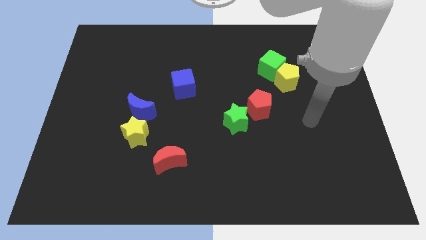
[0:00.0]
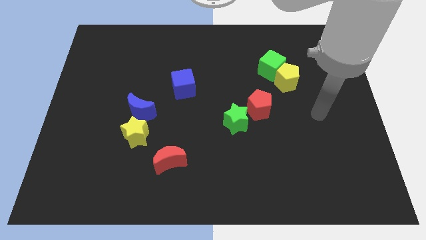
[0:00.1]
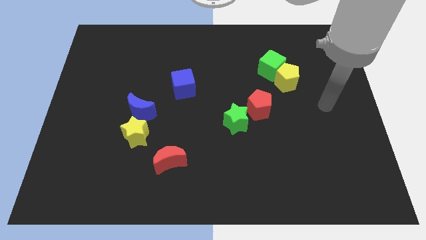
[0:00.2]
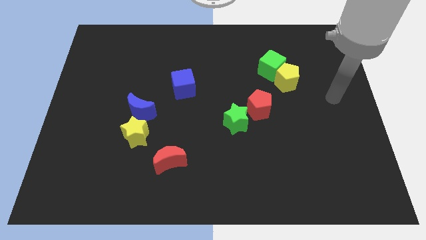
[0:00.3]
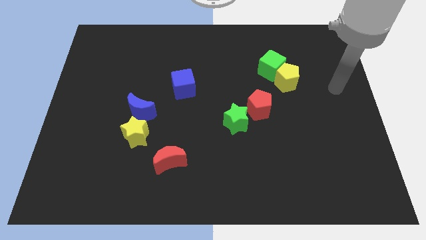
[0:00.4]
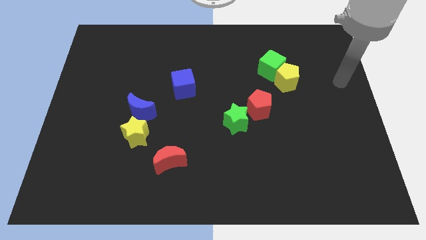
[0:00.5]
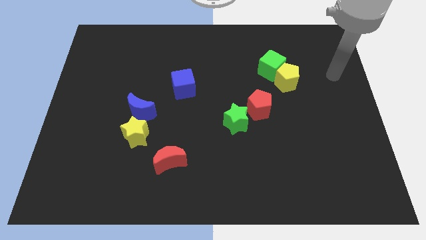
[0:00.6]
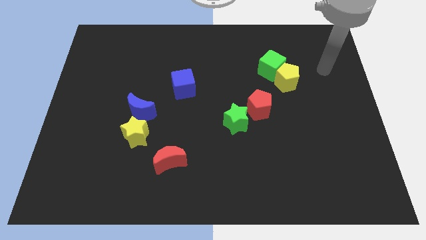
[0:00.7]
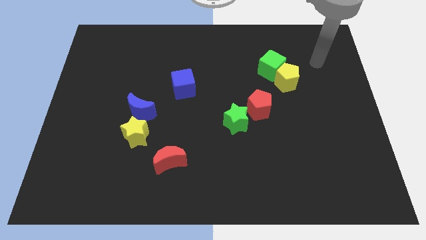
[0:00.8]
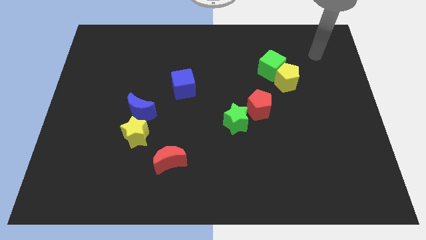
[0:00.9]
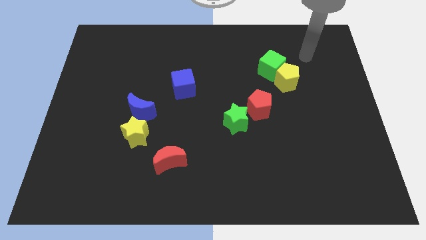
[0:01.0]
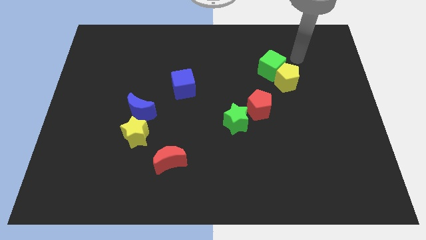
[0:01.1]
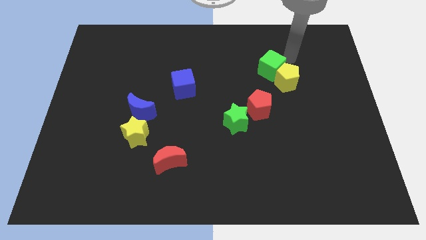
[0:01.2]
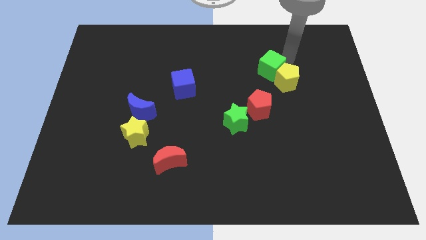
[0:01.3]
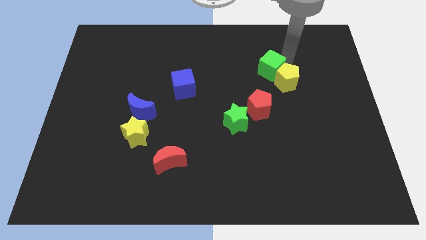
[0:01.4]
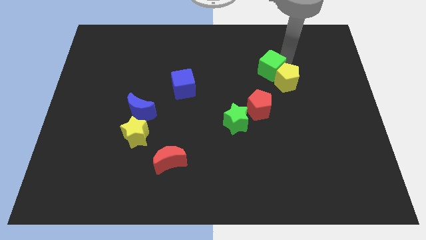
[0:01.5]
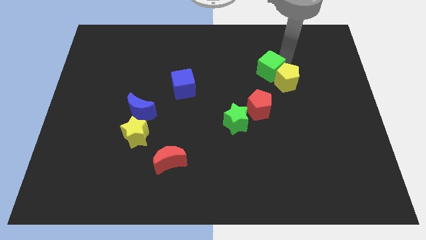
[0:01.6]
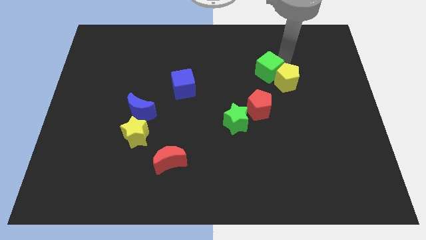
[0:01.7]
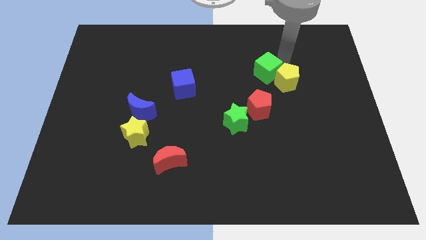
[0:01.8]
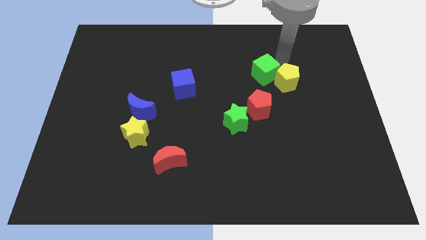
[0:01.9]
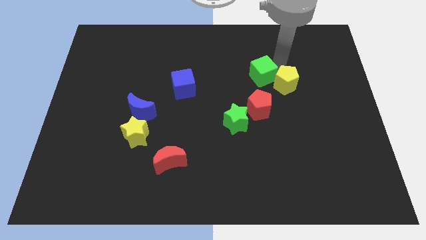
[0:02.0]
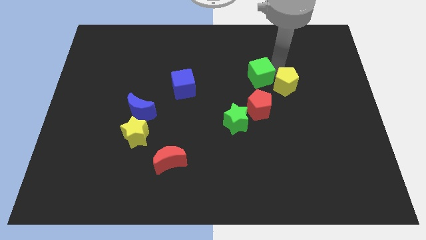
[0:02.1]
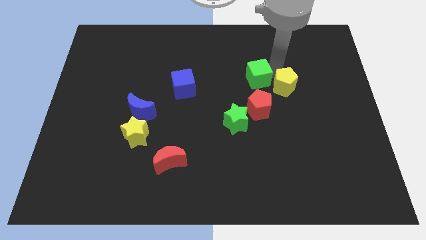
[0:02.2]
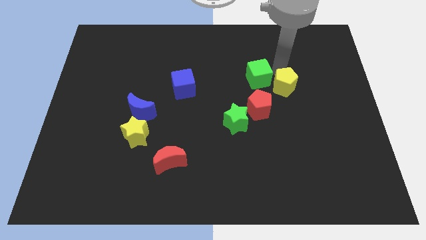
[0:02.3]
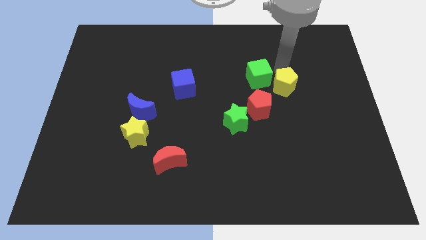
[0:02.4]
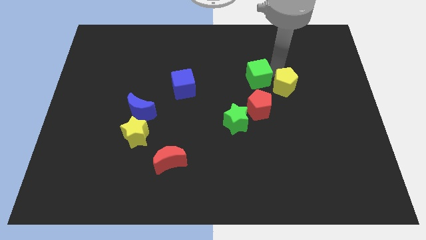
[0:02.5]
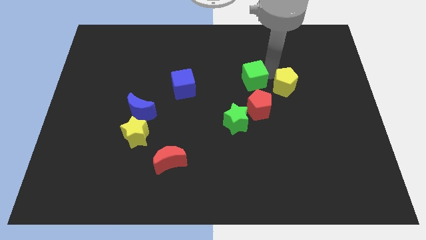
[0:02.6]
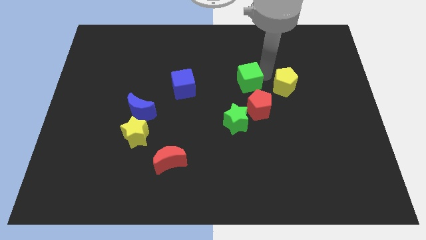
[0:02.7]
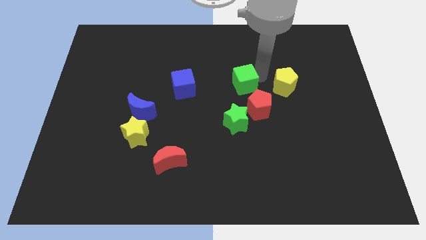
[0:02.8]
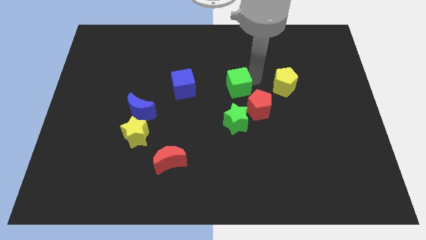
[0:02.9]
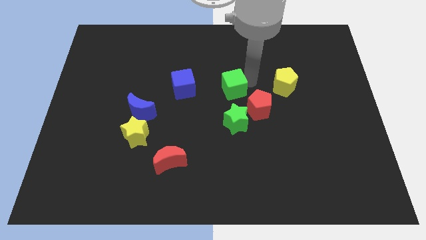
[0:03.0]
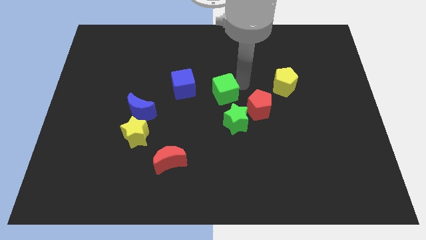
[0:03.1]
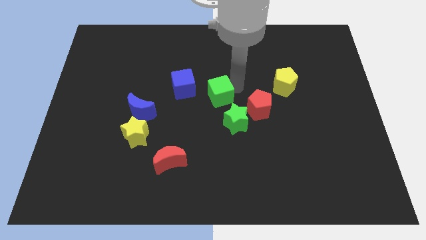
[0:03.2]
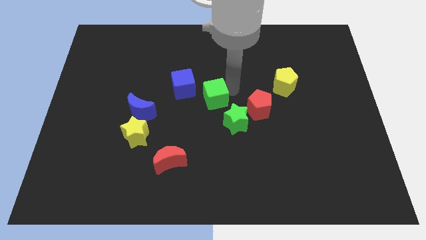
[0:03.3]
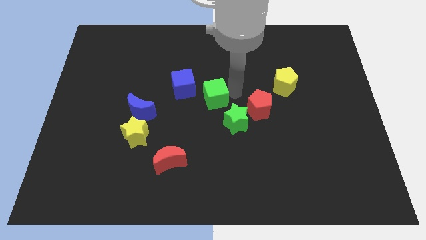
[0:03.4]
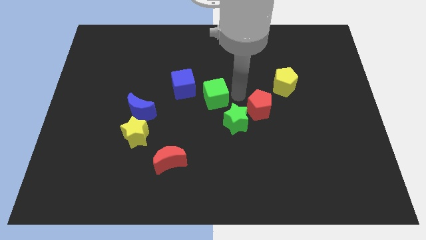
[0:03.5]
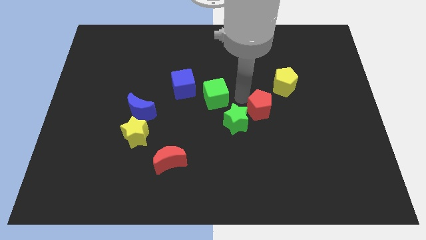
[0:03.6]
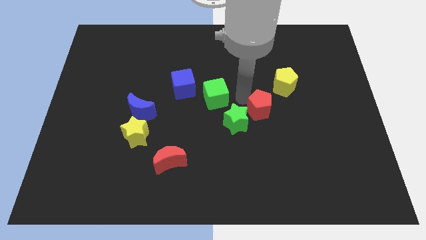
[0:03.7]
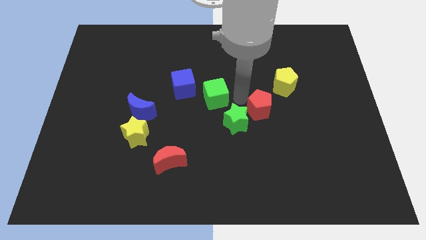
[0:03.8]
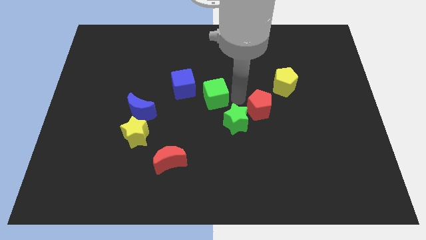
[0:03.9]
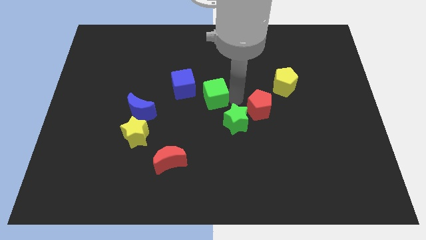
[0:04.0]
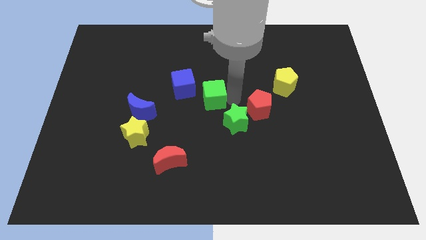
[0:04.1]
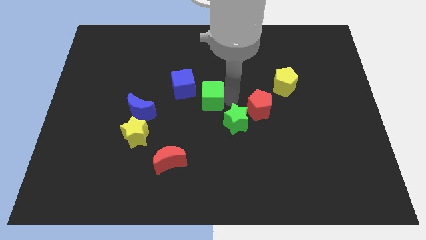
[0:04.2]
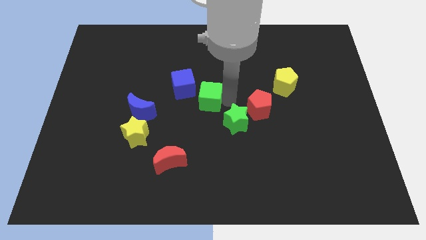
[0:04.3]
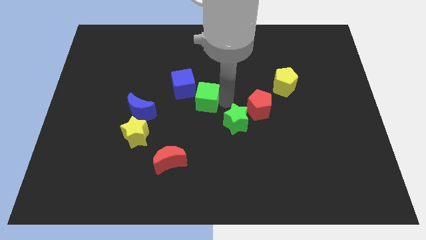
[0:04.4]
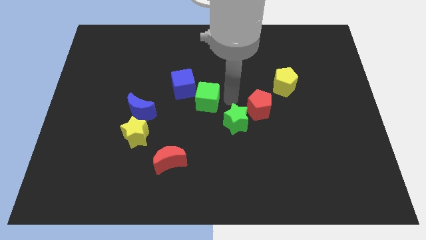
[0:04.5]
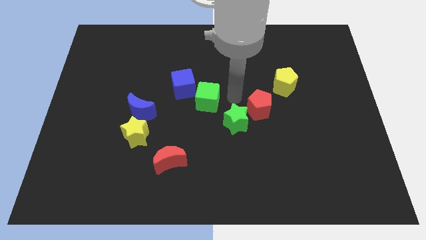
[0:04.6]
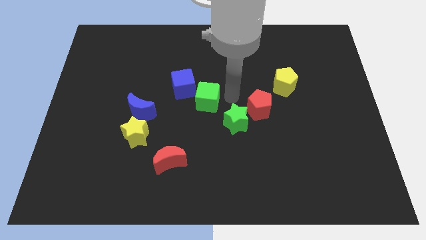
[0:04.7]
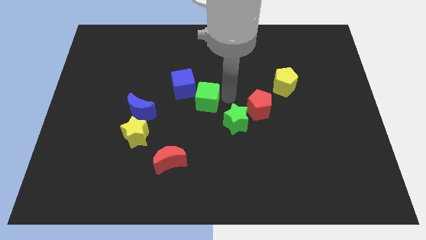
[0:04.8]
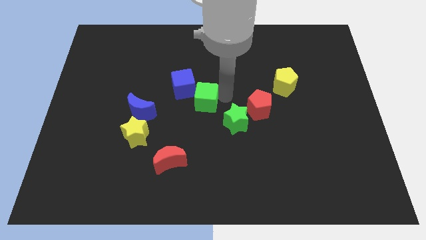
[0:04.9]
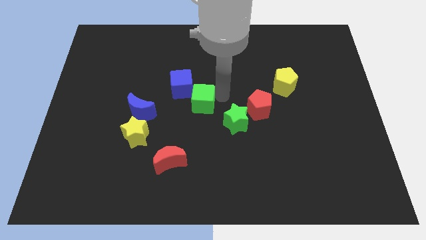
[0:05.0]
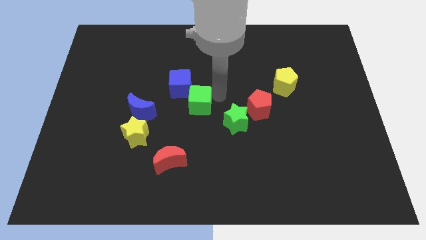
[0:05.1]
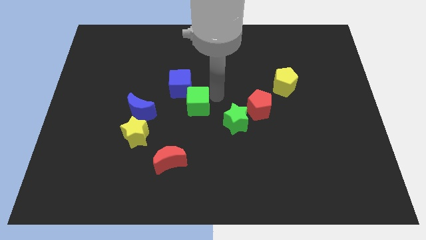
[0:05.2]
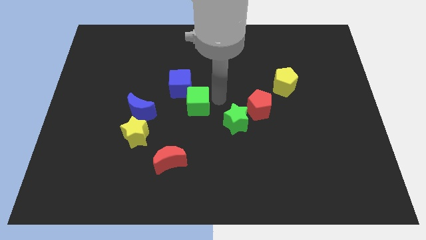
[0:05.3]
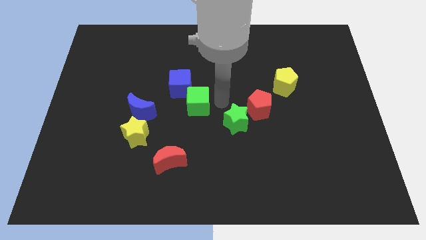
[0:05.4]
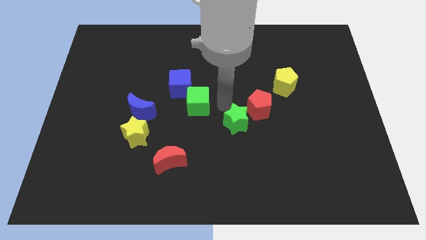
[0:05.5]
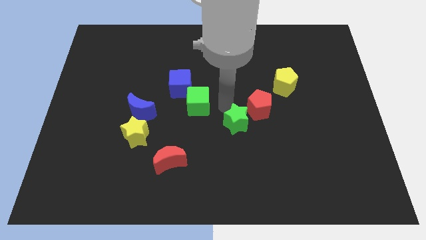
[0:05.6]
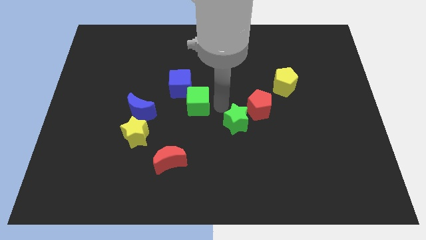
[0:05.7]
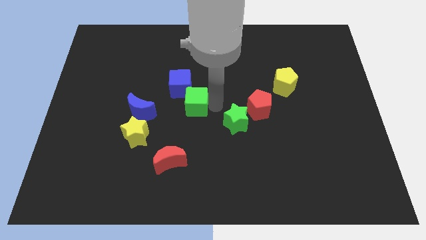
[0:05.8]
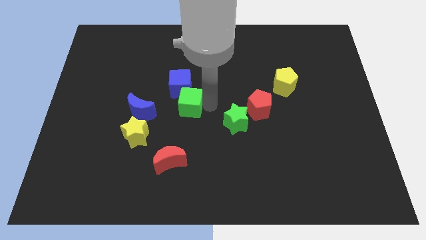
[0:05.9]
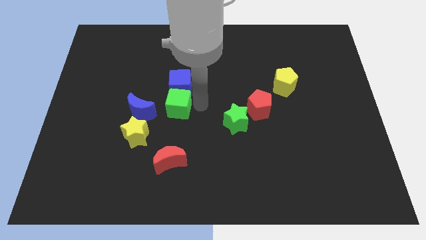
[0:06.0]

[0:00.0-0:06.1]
push the green cube diagonally down and to the left of the blue cube

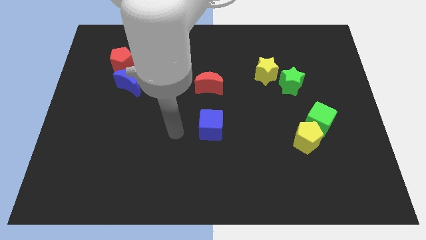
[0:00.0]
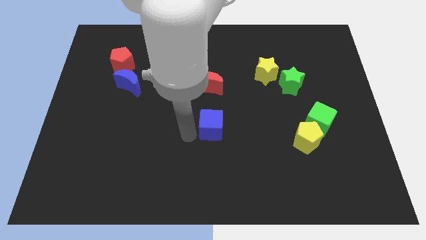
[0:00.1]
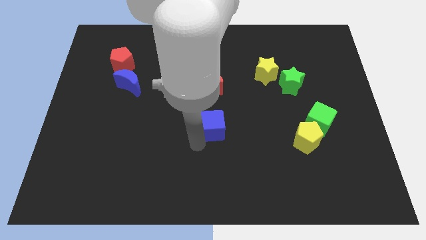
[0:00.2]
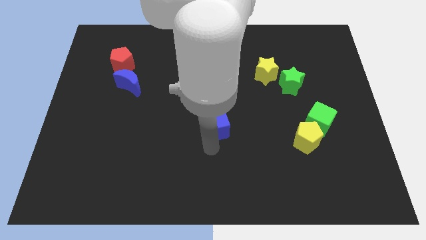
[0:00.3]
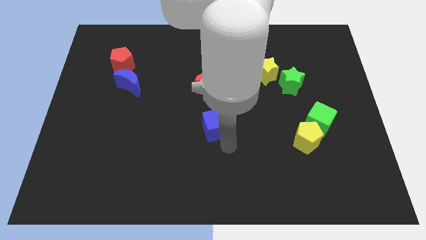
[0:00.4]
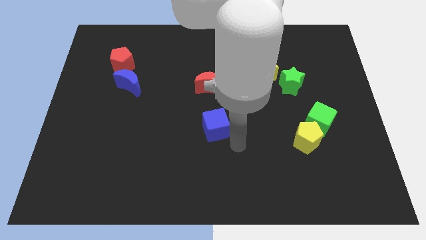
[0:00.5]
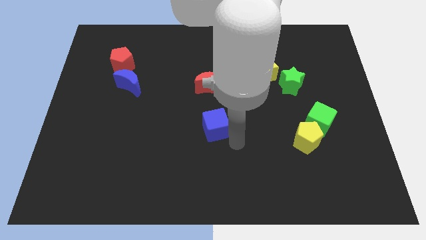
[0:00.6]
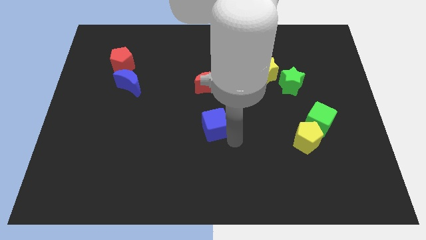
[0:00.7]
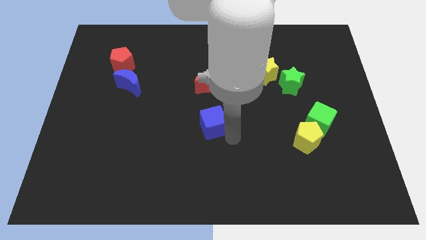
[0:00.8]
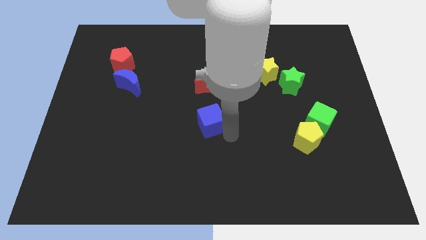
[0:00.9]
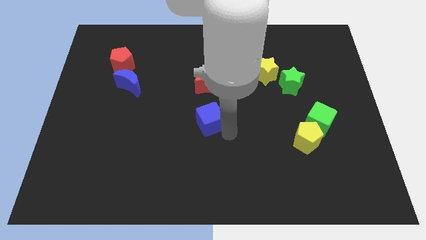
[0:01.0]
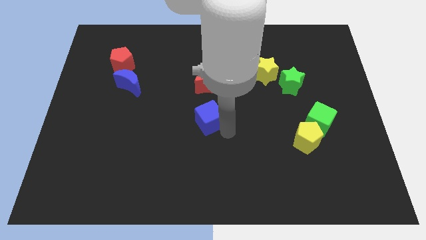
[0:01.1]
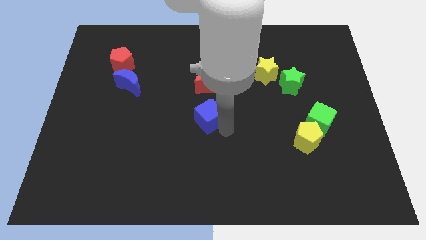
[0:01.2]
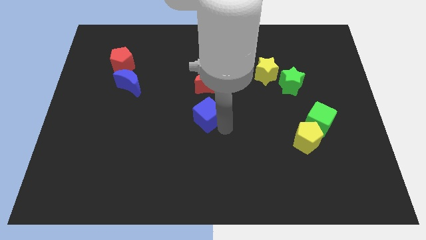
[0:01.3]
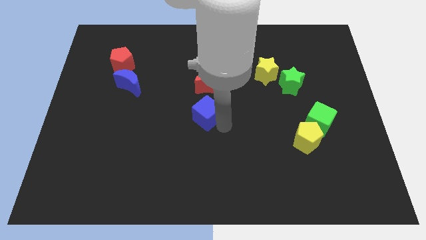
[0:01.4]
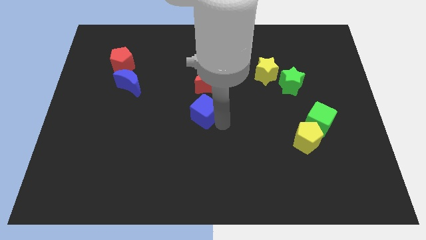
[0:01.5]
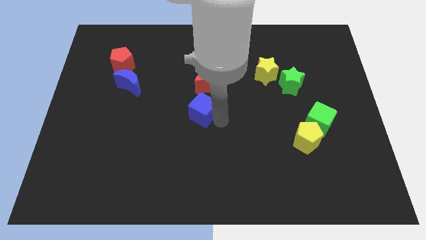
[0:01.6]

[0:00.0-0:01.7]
push the blue cube to the bottom left side of the red moon
